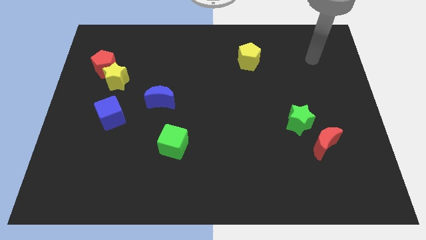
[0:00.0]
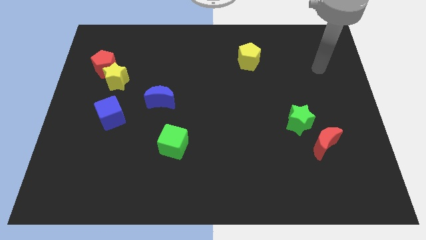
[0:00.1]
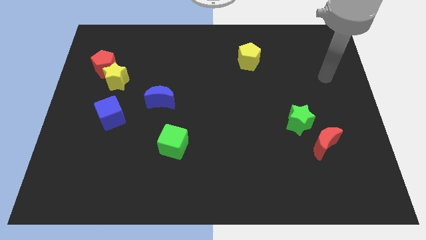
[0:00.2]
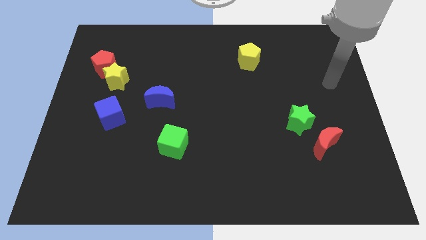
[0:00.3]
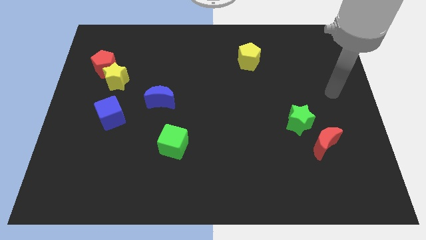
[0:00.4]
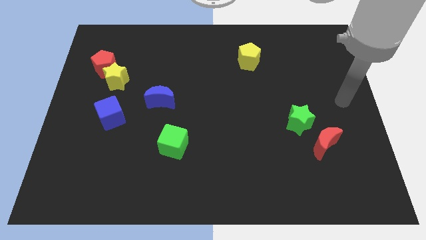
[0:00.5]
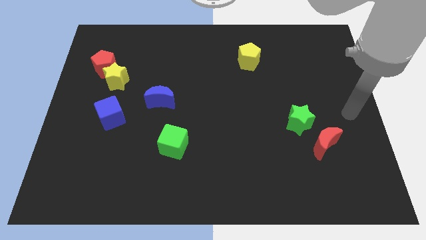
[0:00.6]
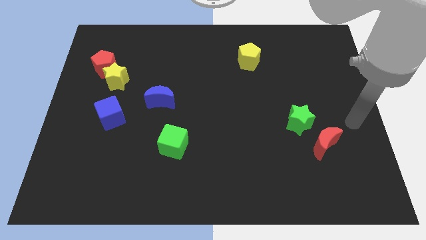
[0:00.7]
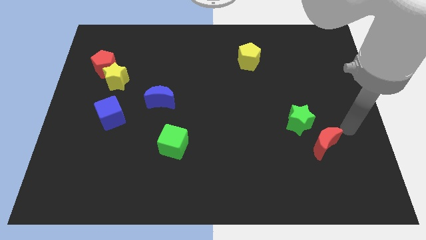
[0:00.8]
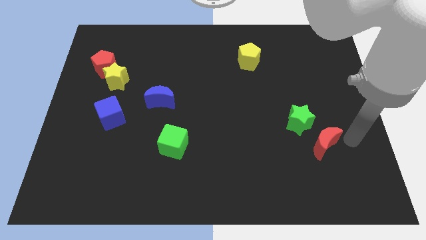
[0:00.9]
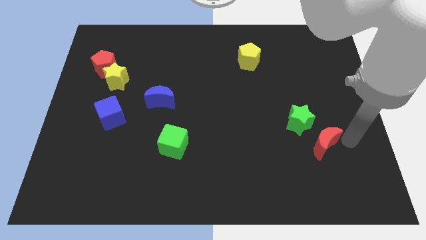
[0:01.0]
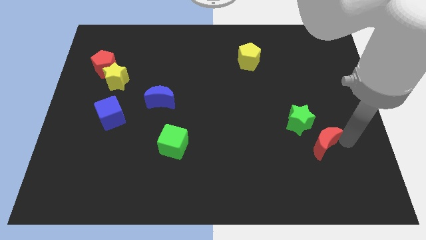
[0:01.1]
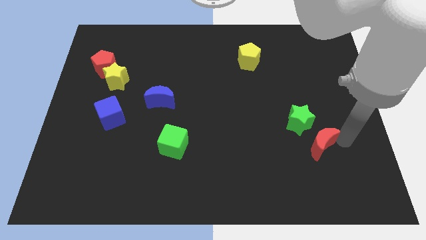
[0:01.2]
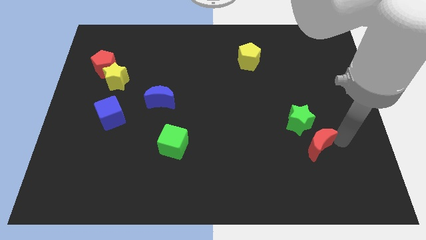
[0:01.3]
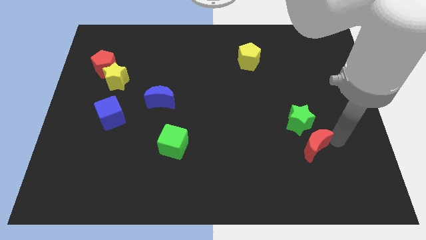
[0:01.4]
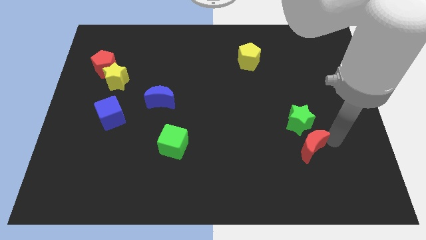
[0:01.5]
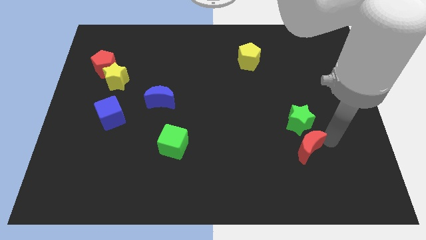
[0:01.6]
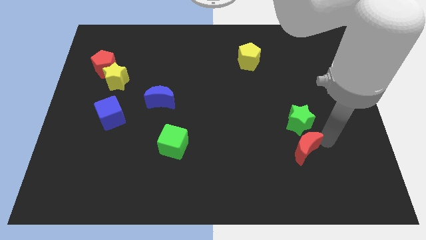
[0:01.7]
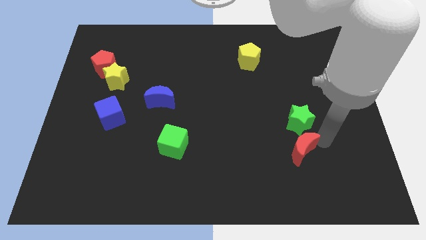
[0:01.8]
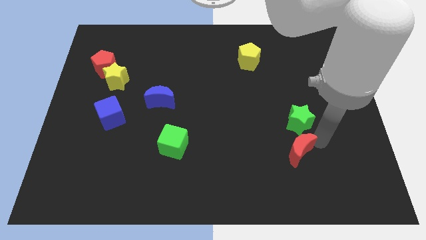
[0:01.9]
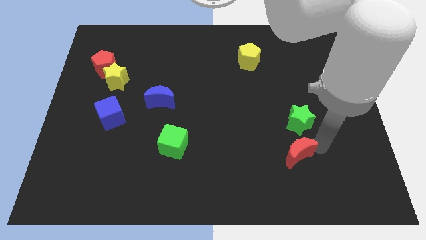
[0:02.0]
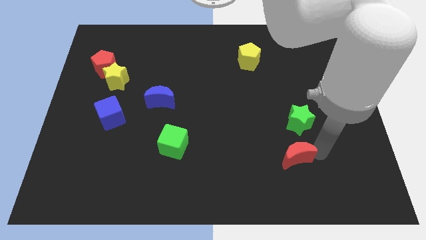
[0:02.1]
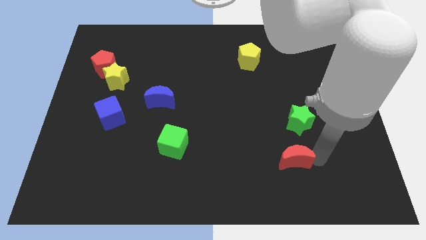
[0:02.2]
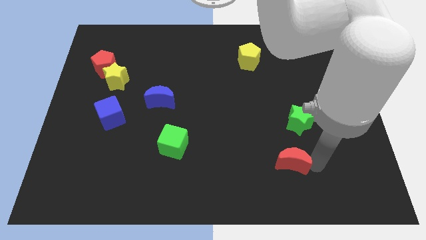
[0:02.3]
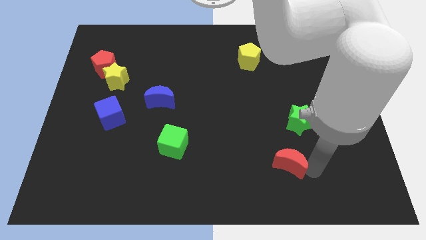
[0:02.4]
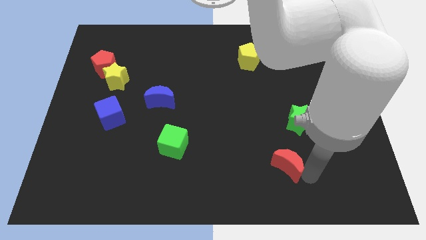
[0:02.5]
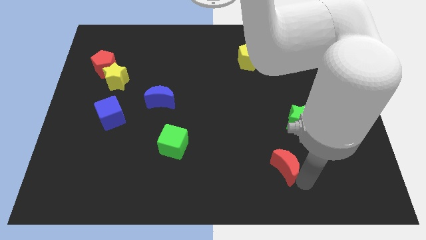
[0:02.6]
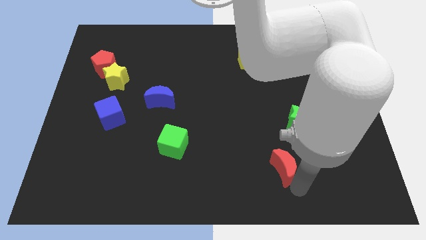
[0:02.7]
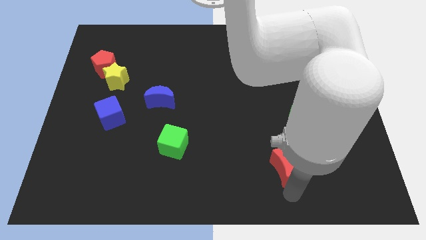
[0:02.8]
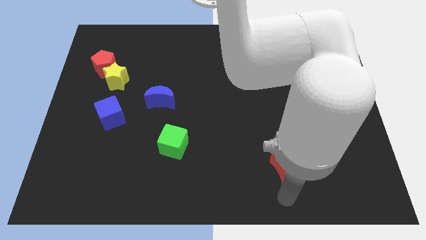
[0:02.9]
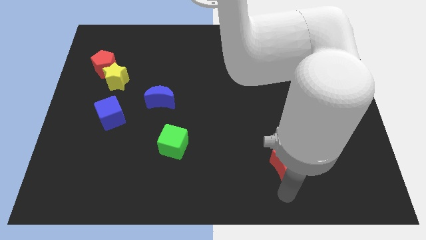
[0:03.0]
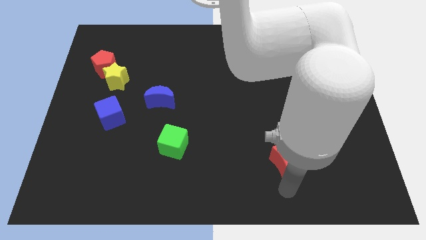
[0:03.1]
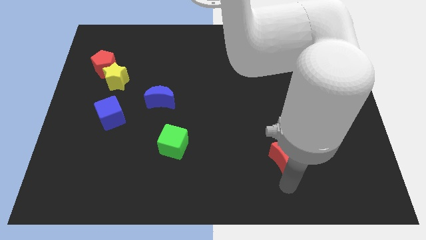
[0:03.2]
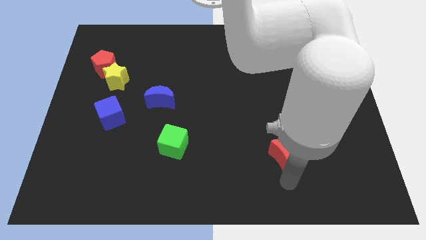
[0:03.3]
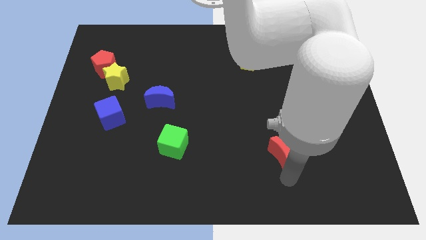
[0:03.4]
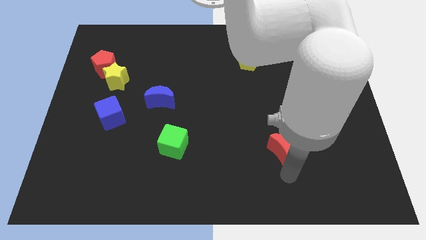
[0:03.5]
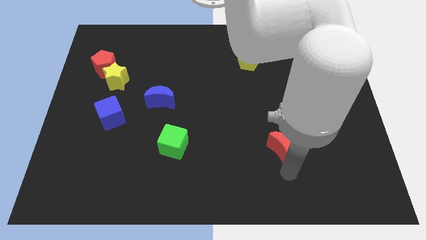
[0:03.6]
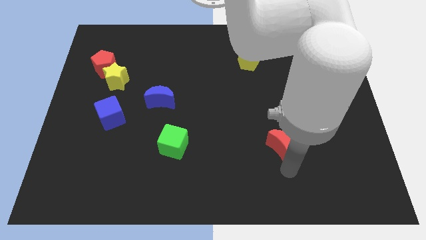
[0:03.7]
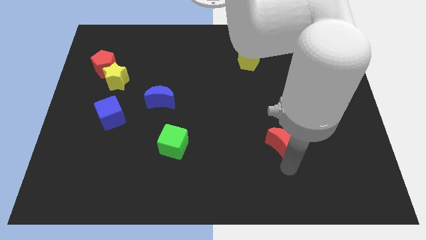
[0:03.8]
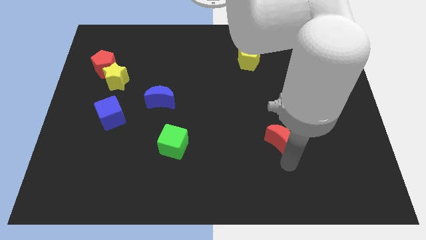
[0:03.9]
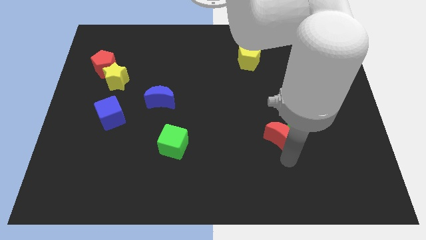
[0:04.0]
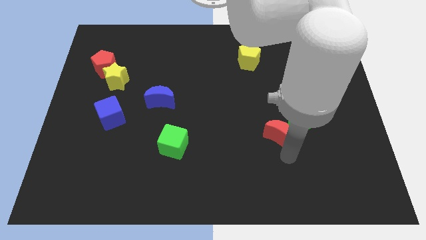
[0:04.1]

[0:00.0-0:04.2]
slide the red moon up and to the left somewhat

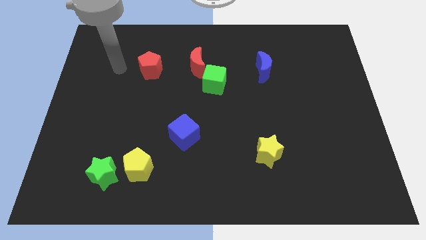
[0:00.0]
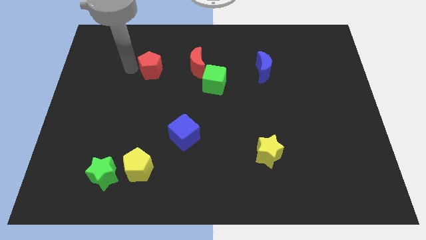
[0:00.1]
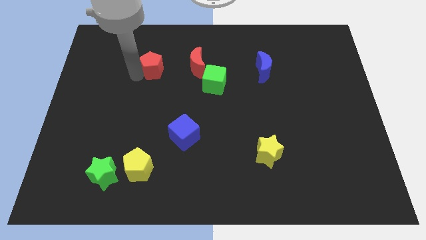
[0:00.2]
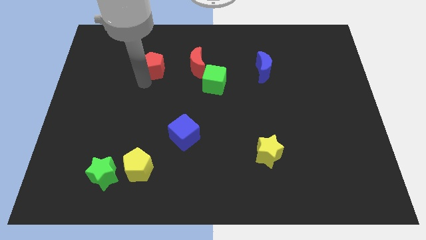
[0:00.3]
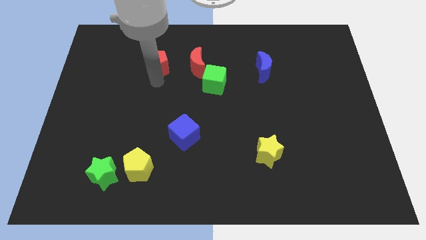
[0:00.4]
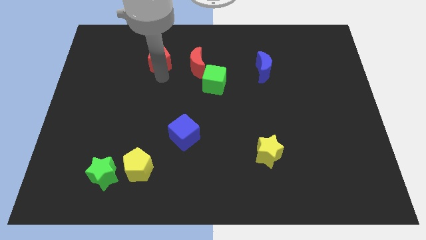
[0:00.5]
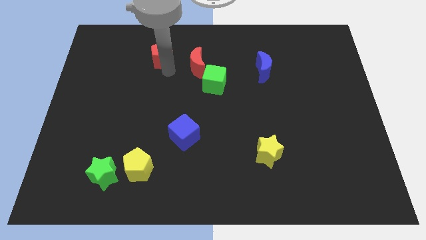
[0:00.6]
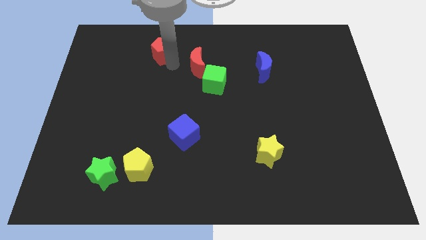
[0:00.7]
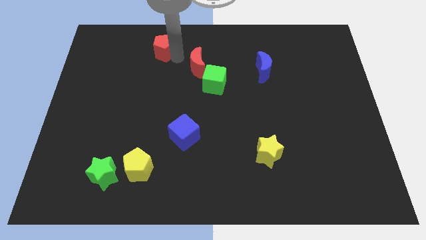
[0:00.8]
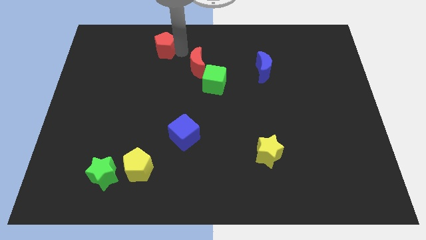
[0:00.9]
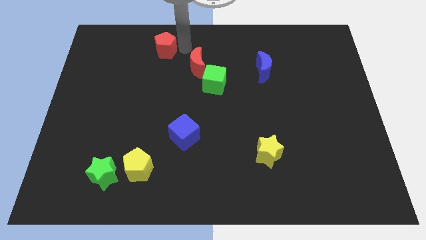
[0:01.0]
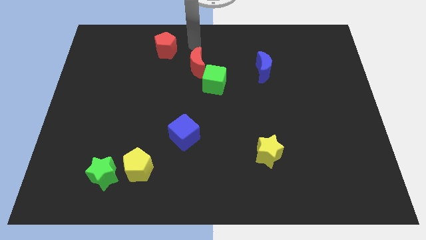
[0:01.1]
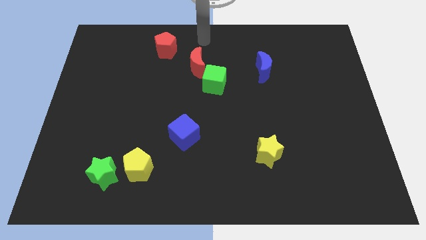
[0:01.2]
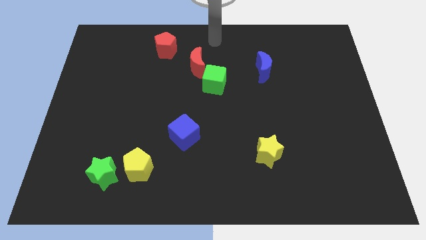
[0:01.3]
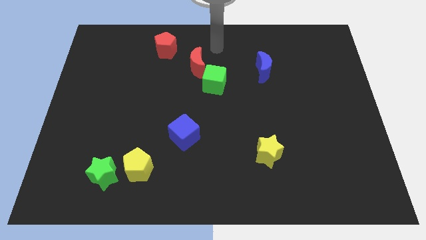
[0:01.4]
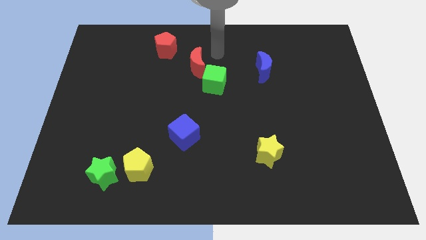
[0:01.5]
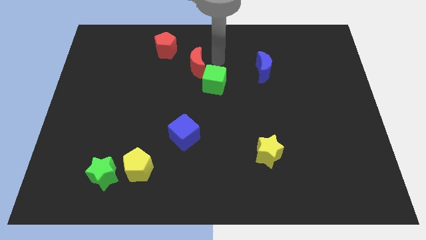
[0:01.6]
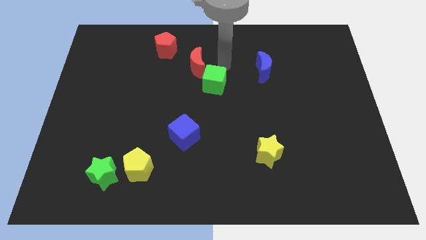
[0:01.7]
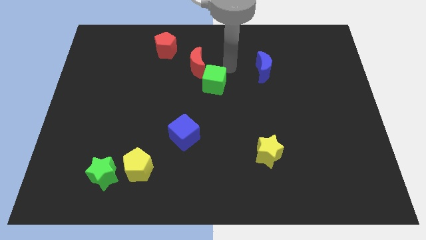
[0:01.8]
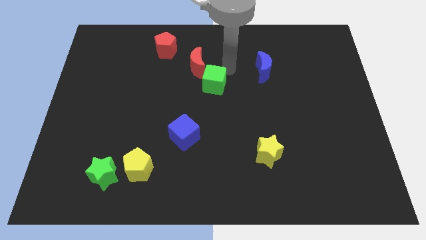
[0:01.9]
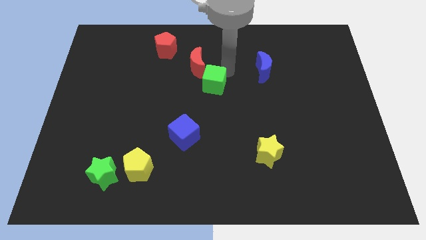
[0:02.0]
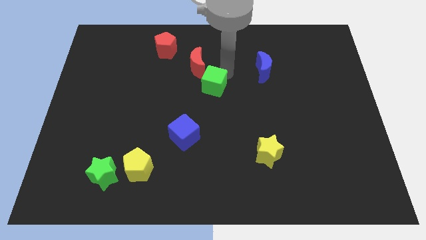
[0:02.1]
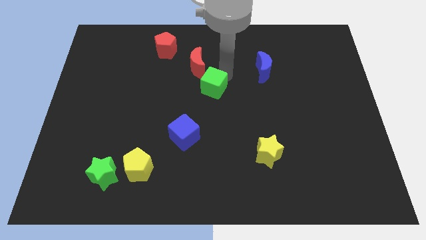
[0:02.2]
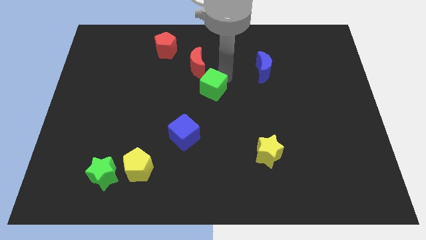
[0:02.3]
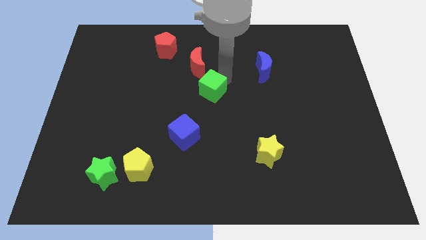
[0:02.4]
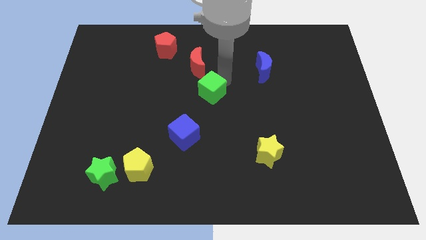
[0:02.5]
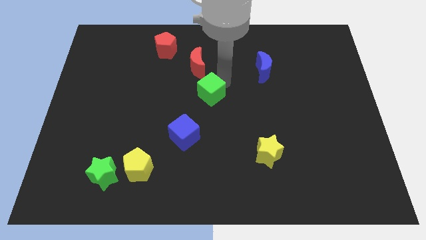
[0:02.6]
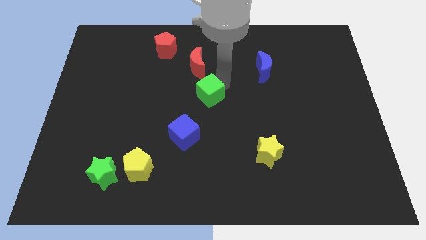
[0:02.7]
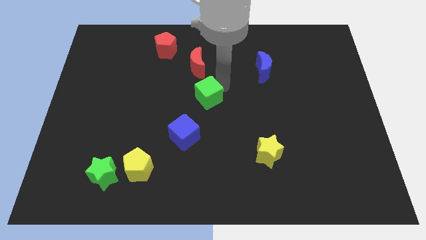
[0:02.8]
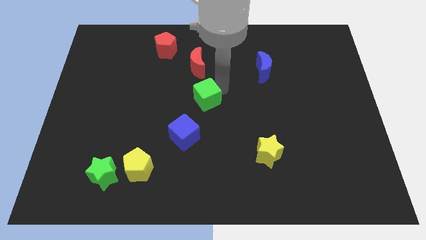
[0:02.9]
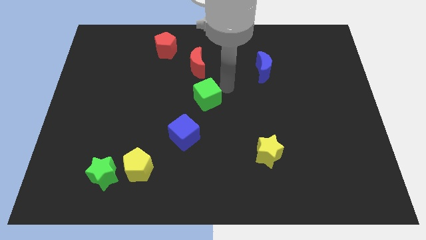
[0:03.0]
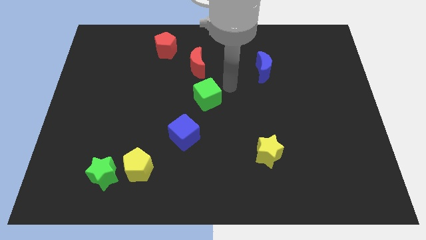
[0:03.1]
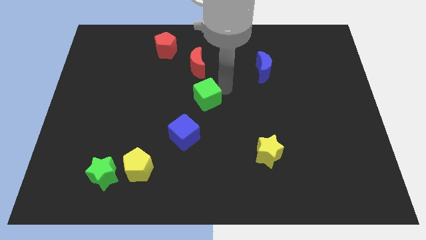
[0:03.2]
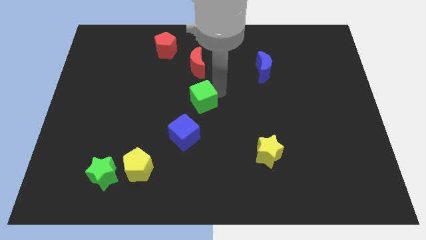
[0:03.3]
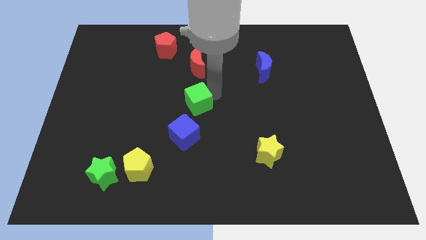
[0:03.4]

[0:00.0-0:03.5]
push the green cube downwards and to the left a little bit

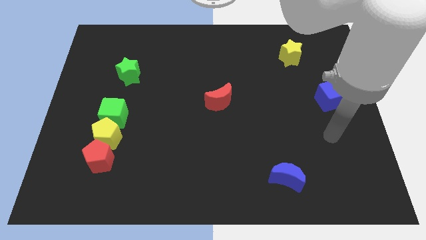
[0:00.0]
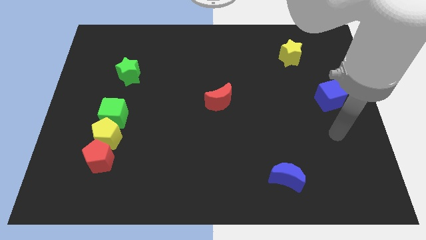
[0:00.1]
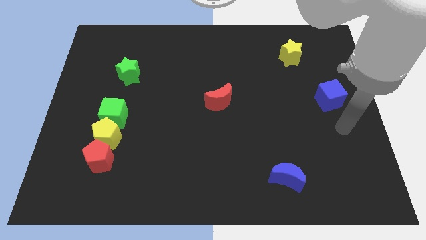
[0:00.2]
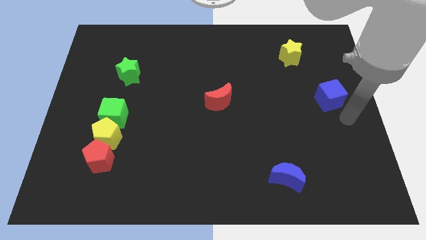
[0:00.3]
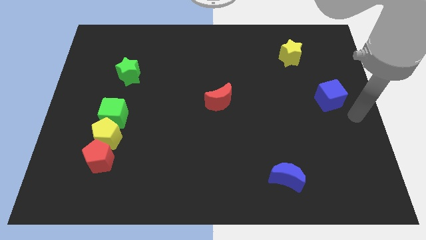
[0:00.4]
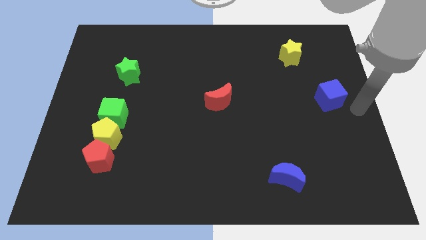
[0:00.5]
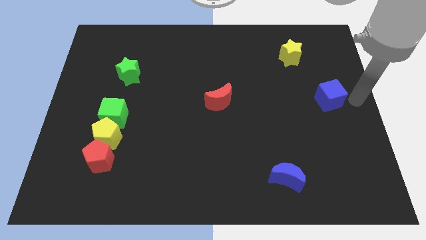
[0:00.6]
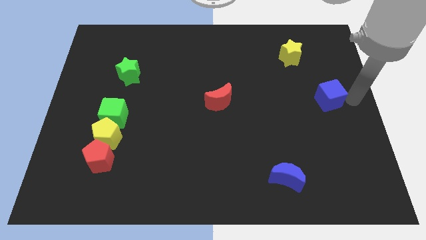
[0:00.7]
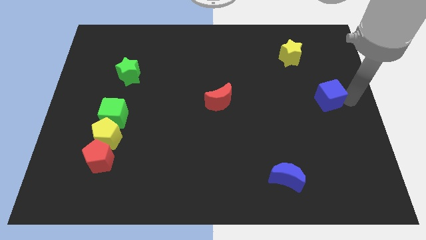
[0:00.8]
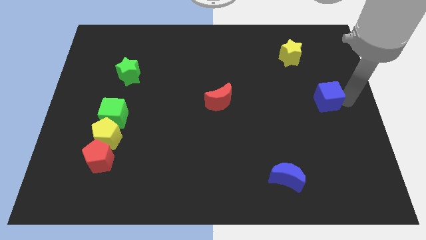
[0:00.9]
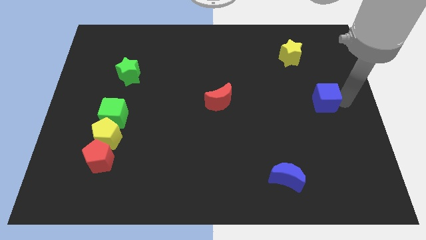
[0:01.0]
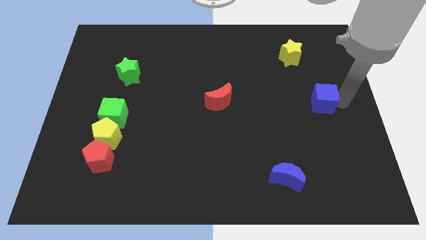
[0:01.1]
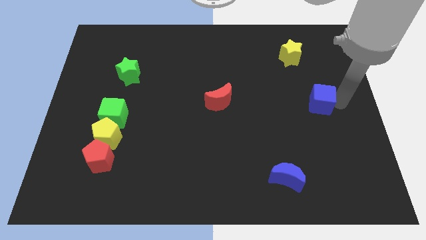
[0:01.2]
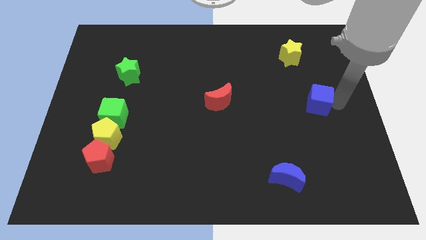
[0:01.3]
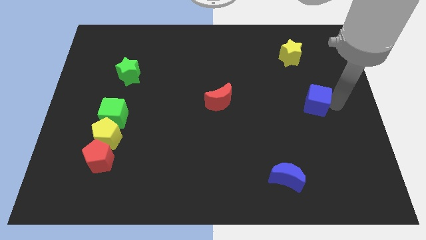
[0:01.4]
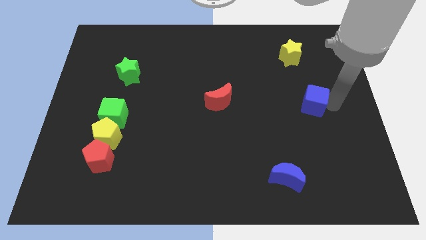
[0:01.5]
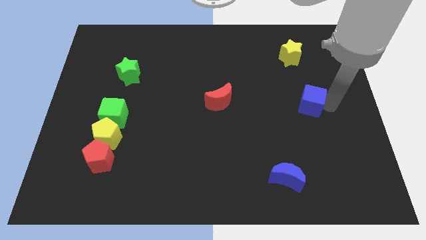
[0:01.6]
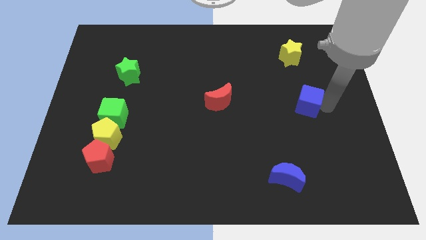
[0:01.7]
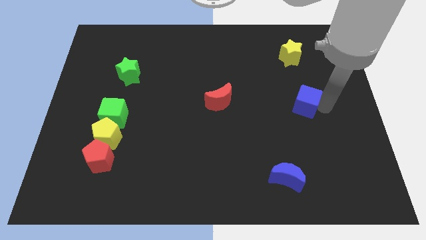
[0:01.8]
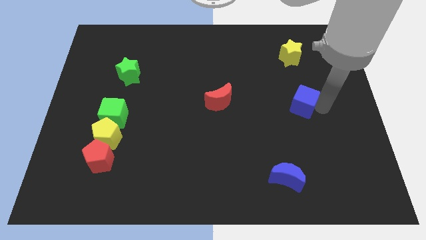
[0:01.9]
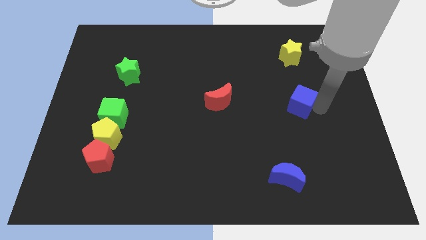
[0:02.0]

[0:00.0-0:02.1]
slide the blue cube to the left a little bit
